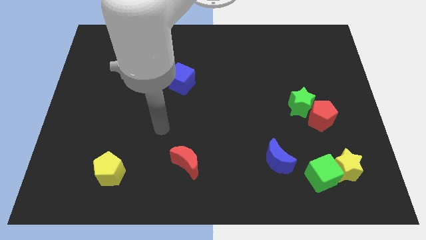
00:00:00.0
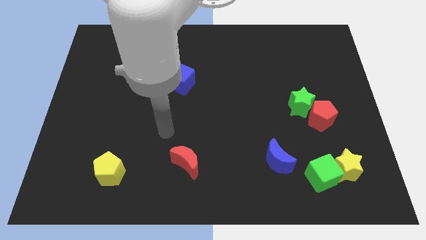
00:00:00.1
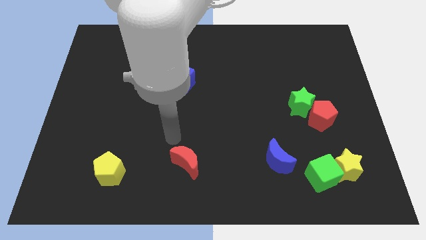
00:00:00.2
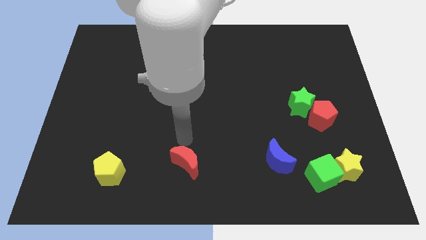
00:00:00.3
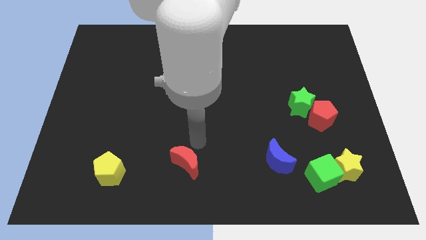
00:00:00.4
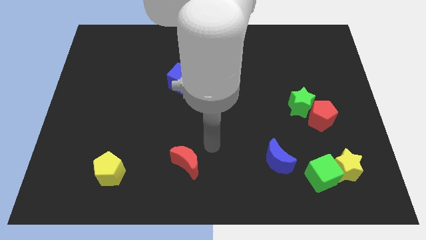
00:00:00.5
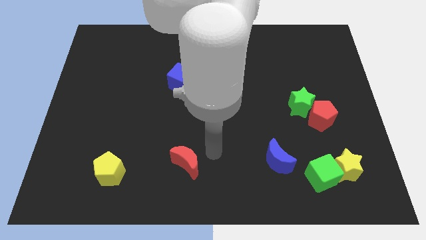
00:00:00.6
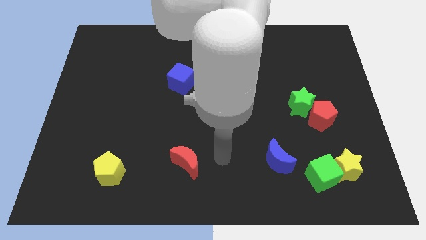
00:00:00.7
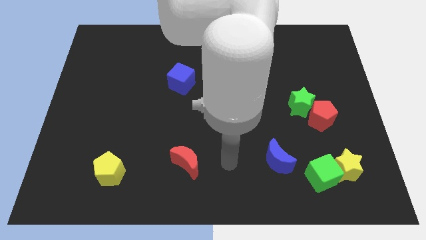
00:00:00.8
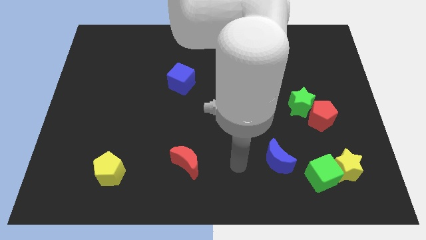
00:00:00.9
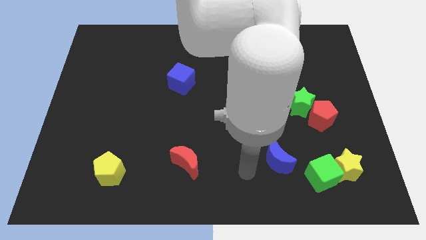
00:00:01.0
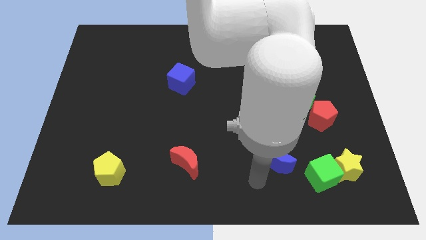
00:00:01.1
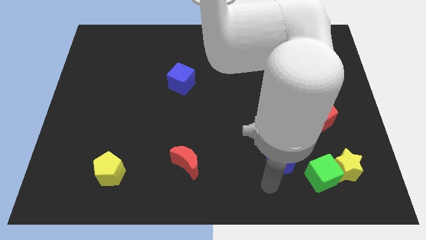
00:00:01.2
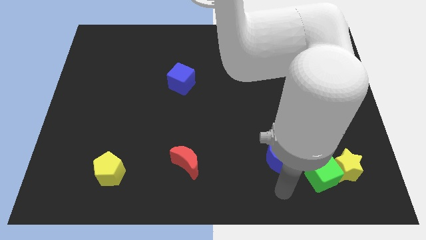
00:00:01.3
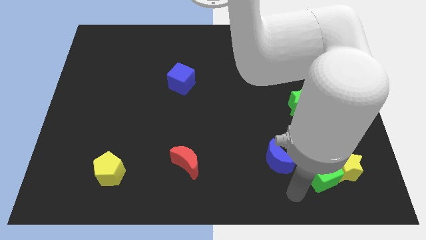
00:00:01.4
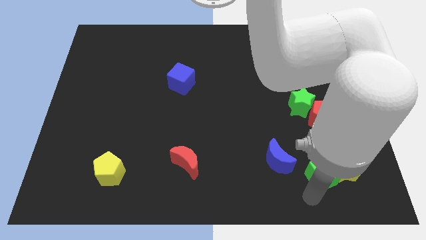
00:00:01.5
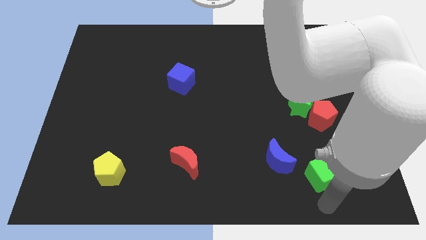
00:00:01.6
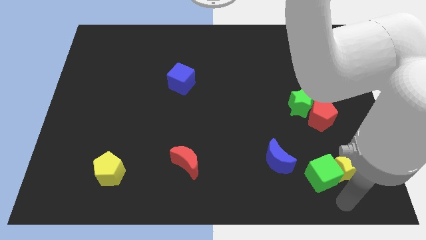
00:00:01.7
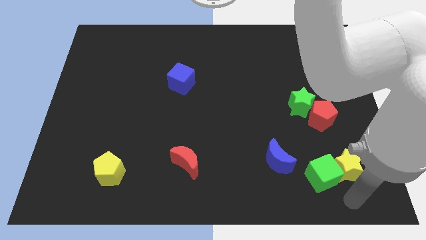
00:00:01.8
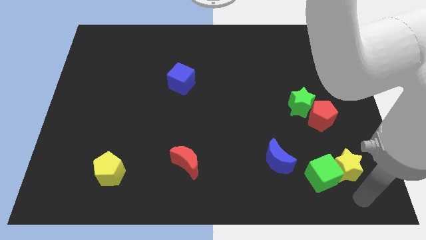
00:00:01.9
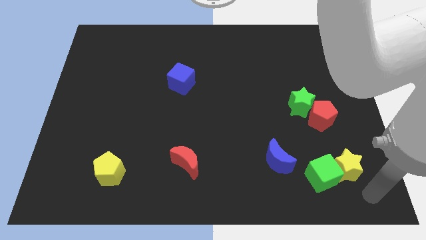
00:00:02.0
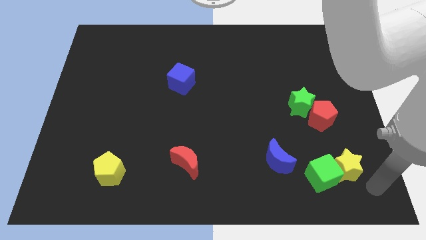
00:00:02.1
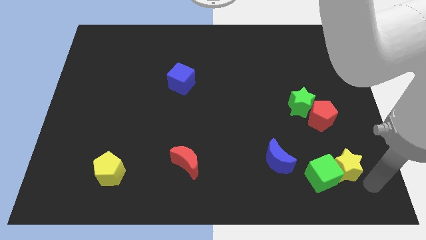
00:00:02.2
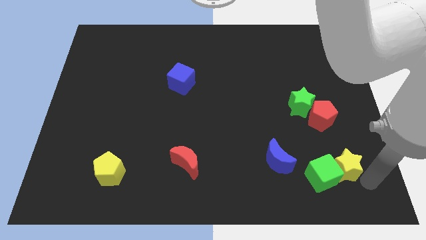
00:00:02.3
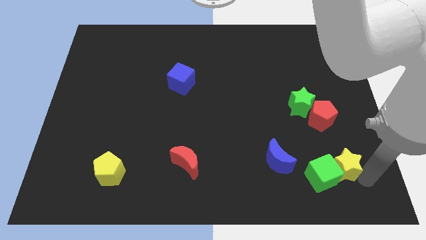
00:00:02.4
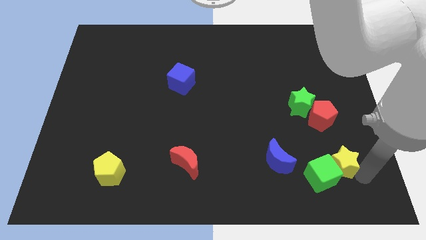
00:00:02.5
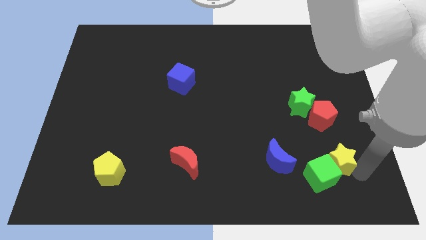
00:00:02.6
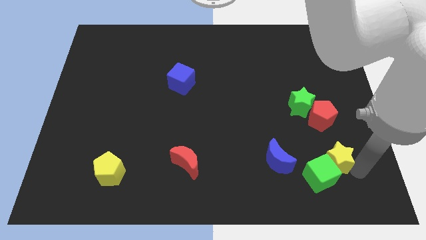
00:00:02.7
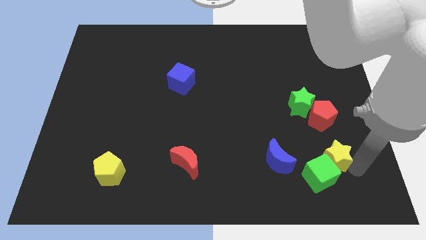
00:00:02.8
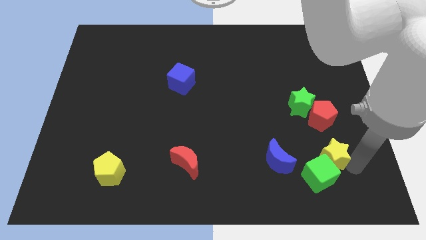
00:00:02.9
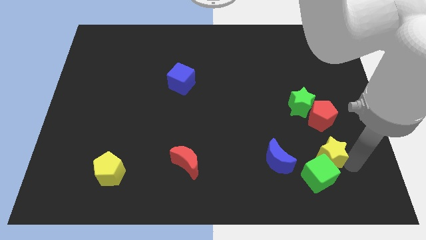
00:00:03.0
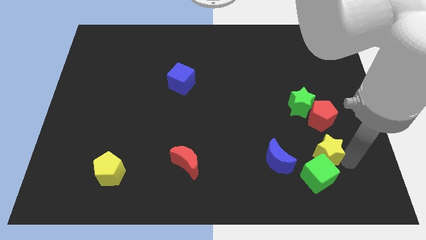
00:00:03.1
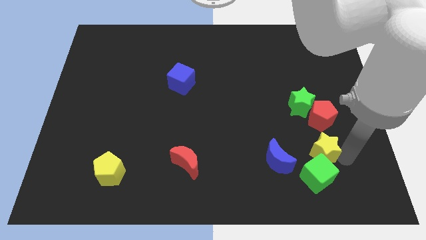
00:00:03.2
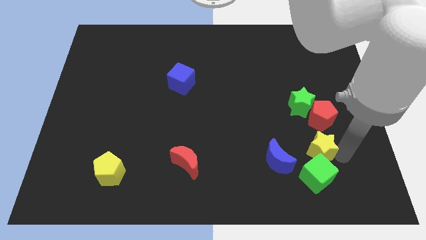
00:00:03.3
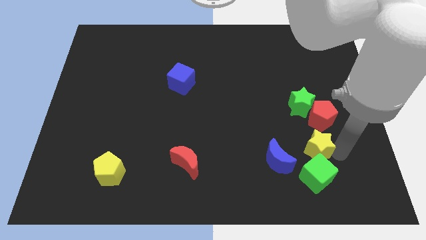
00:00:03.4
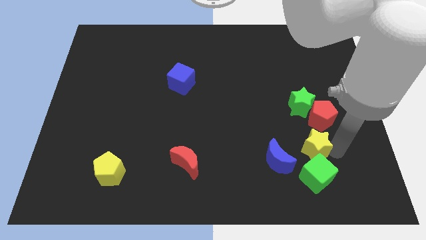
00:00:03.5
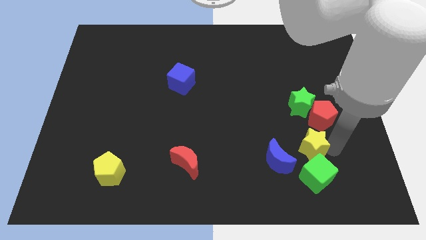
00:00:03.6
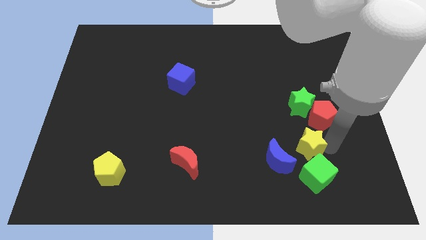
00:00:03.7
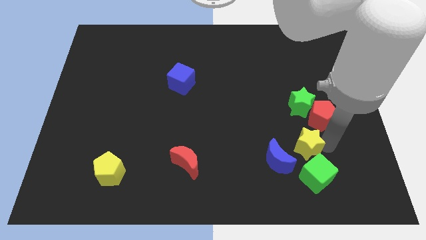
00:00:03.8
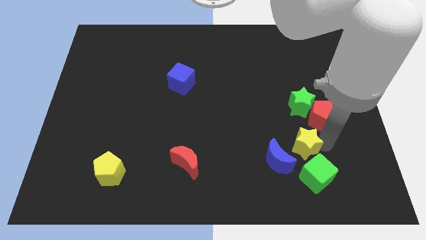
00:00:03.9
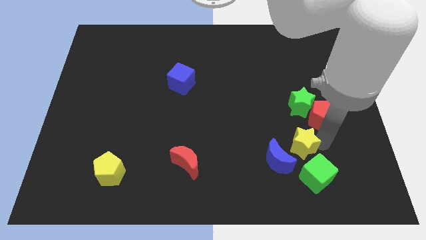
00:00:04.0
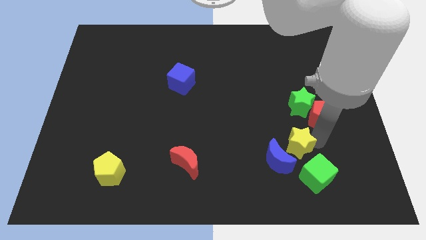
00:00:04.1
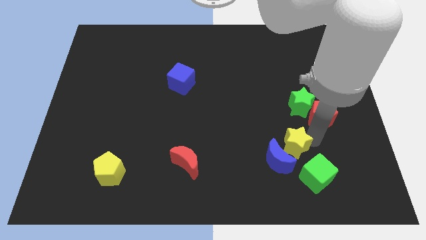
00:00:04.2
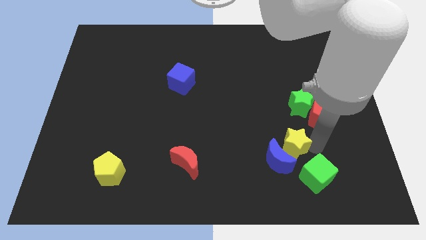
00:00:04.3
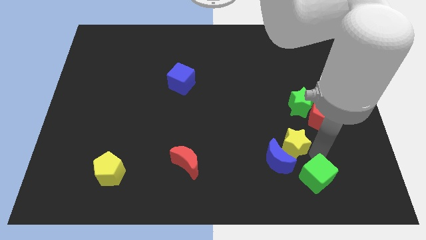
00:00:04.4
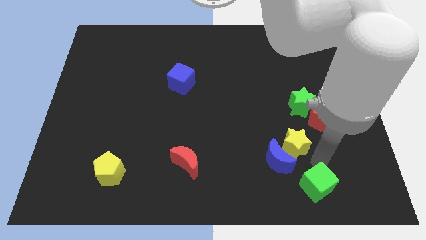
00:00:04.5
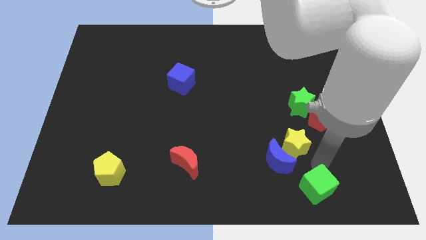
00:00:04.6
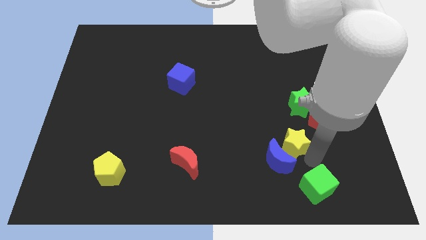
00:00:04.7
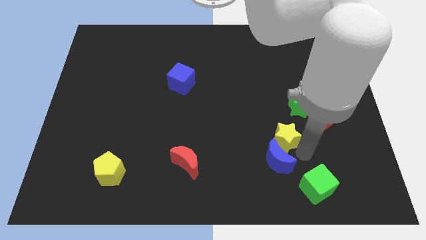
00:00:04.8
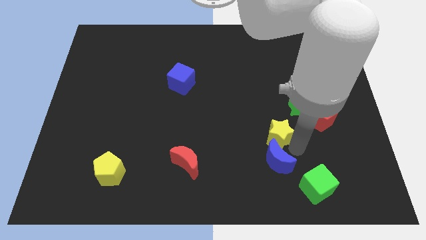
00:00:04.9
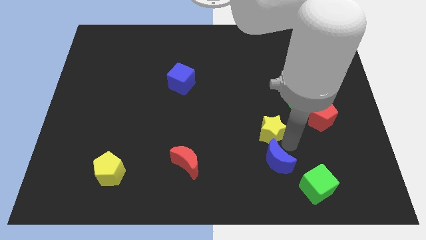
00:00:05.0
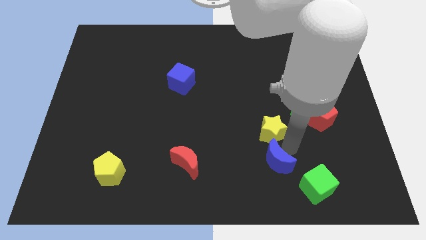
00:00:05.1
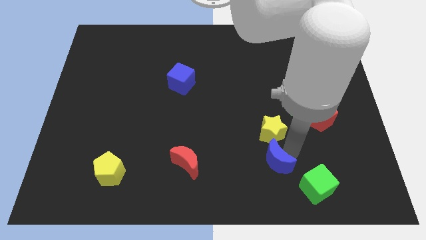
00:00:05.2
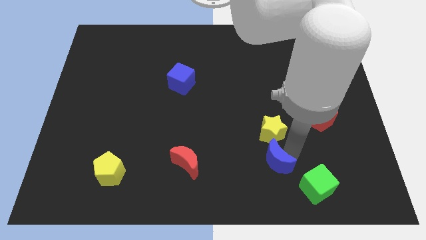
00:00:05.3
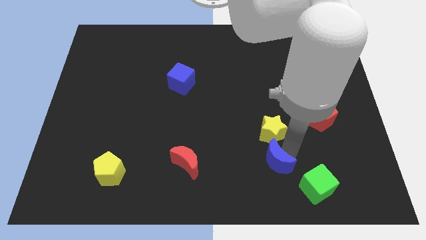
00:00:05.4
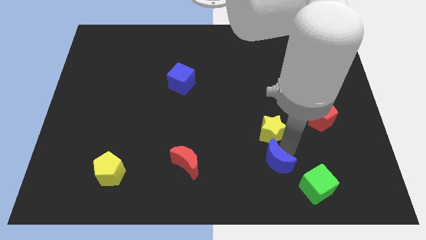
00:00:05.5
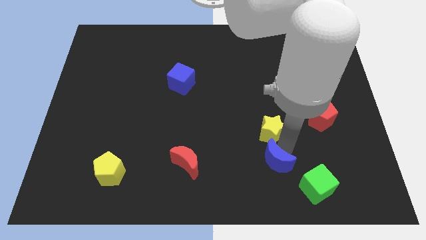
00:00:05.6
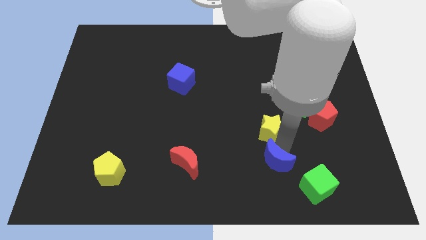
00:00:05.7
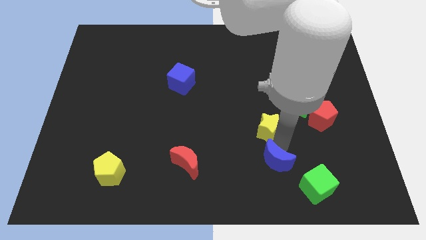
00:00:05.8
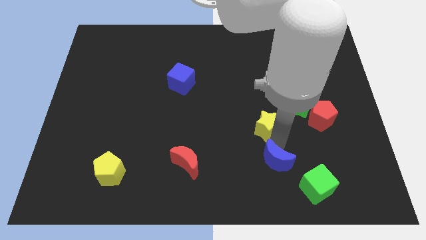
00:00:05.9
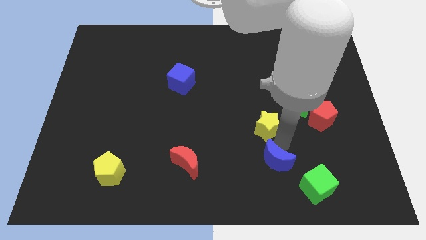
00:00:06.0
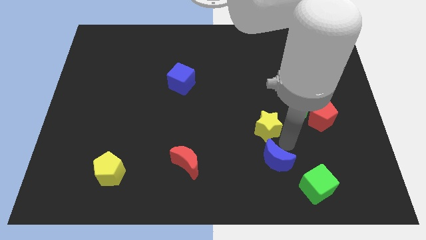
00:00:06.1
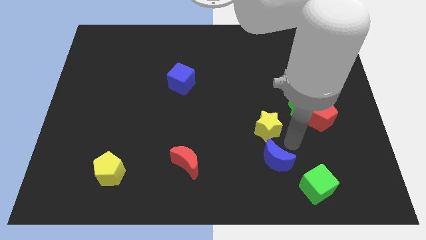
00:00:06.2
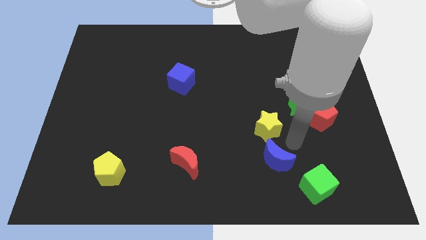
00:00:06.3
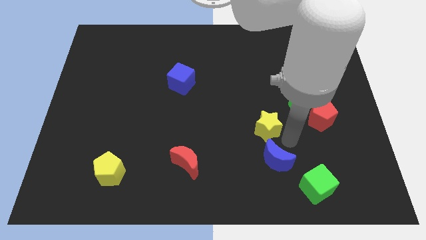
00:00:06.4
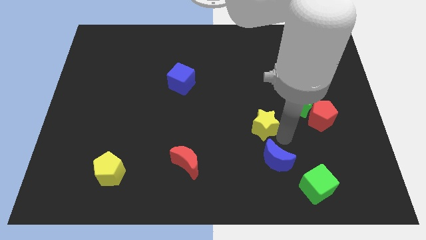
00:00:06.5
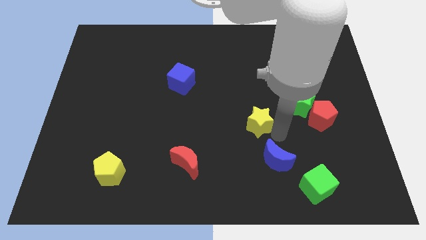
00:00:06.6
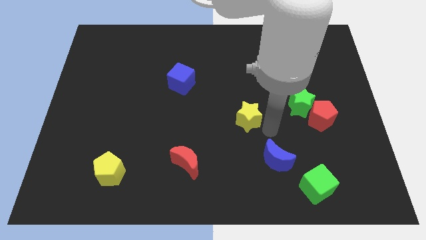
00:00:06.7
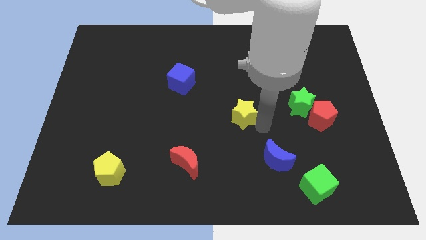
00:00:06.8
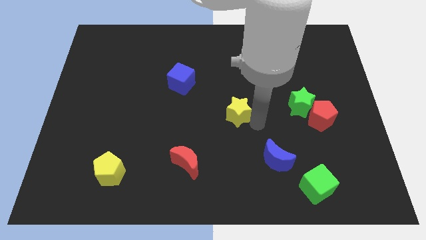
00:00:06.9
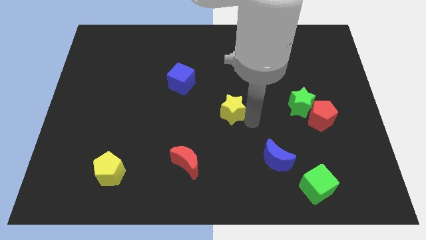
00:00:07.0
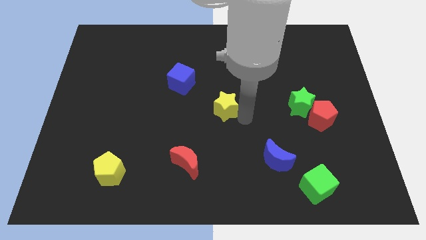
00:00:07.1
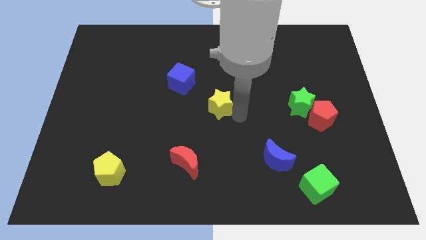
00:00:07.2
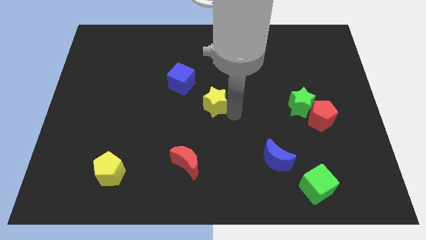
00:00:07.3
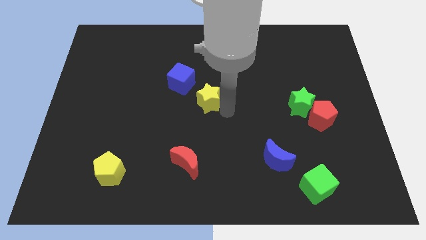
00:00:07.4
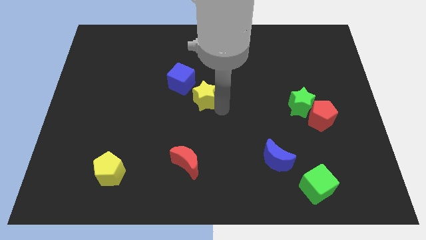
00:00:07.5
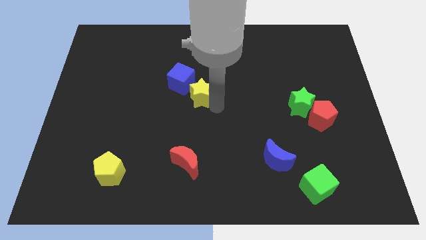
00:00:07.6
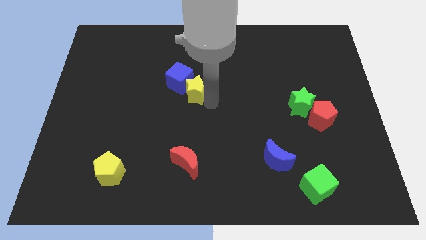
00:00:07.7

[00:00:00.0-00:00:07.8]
put the yellow star close to the blue cube
